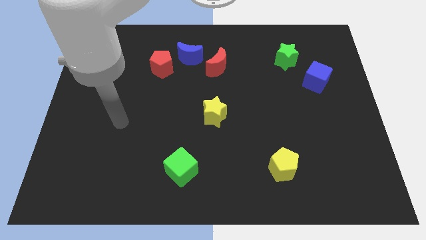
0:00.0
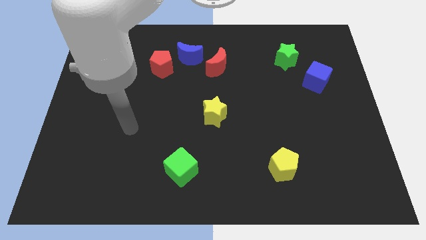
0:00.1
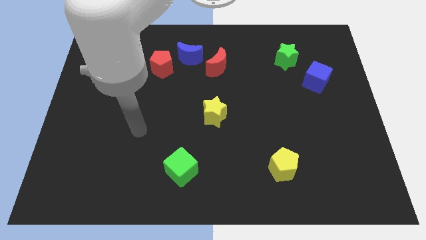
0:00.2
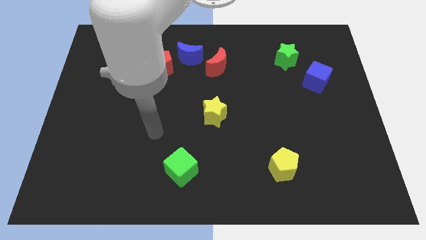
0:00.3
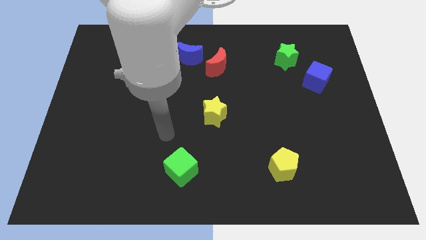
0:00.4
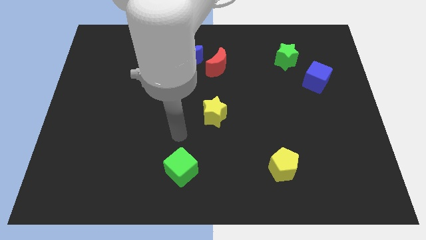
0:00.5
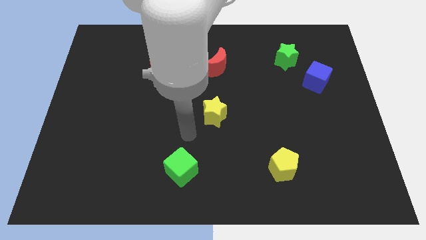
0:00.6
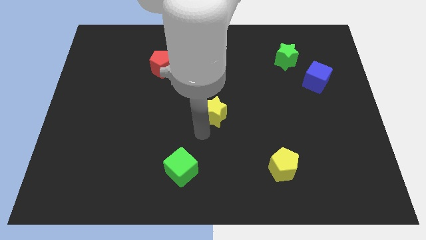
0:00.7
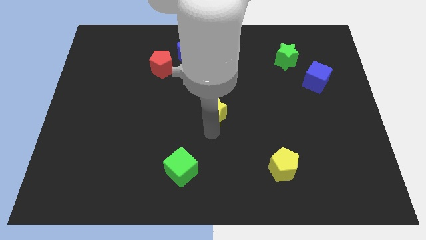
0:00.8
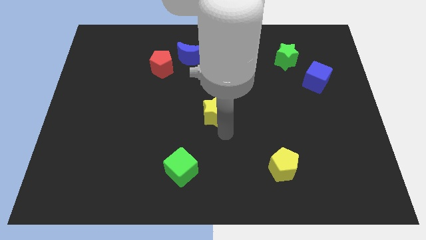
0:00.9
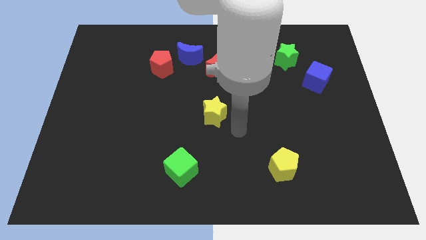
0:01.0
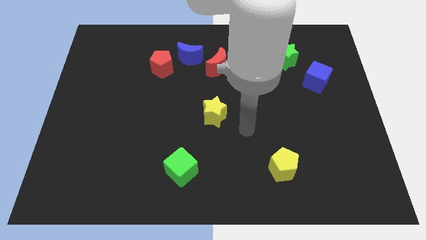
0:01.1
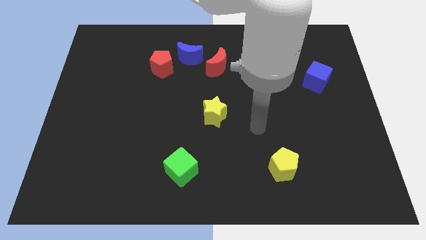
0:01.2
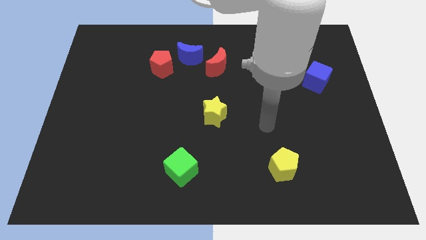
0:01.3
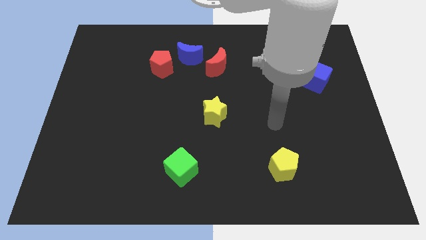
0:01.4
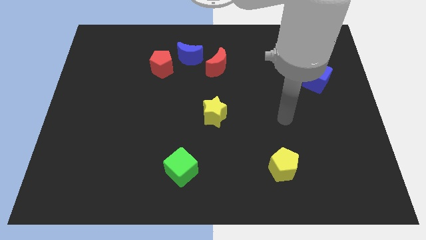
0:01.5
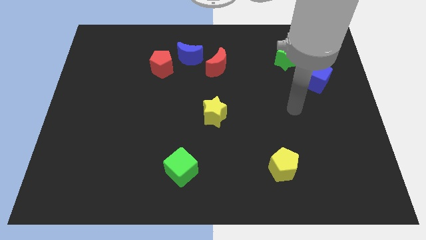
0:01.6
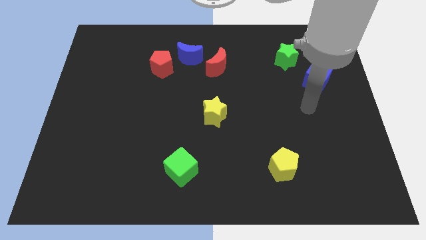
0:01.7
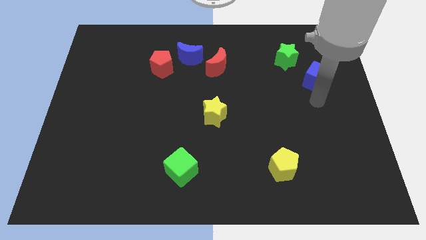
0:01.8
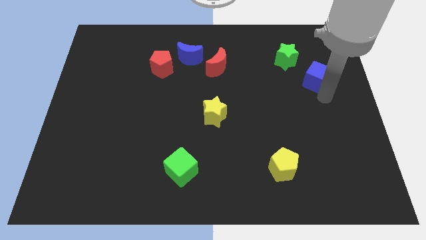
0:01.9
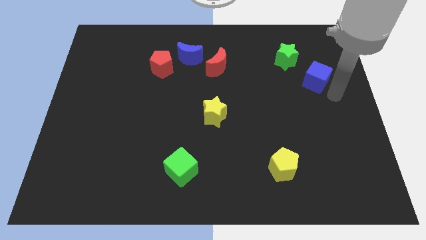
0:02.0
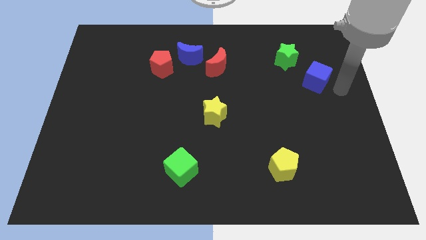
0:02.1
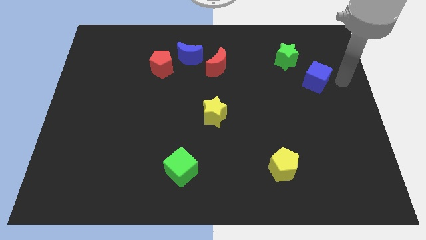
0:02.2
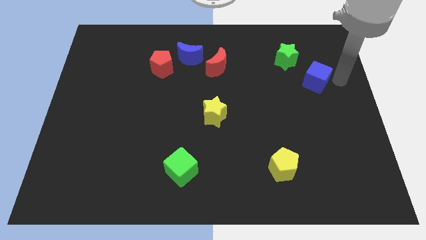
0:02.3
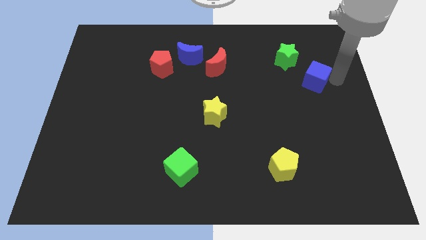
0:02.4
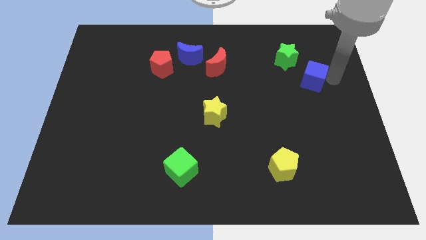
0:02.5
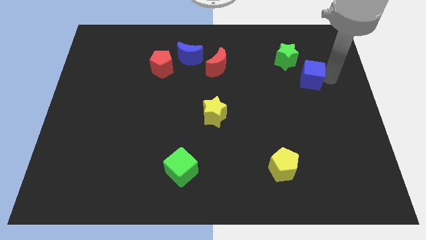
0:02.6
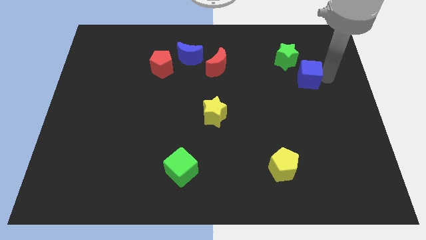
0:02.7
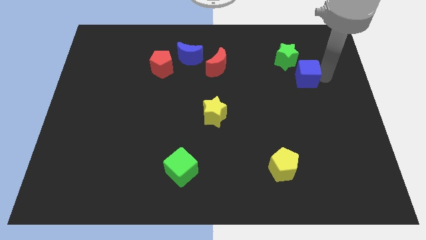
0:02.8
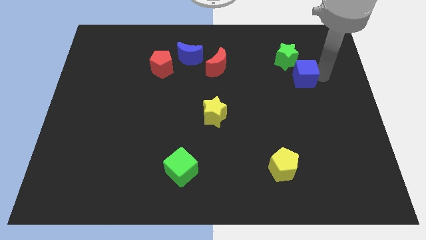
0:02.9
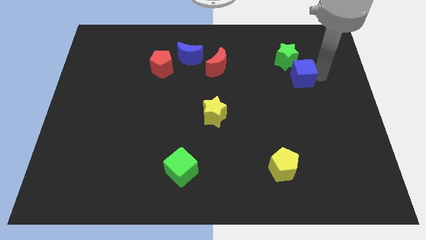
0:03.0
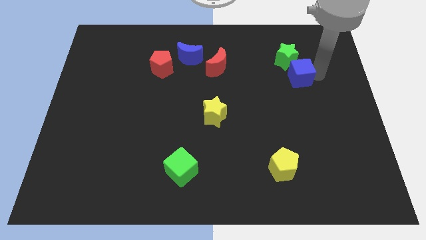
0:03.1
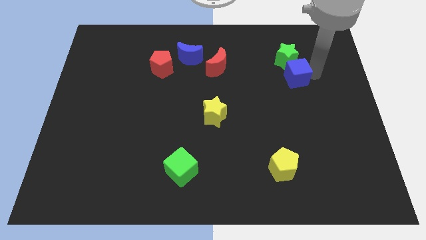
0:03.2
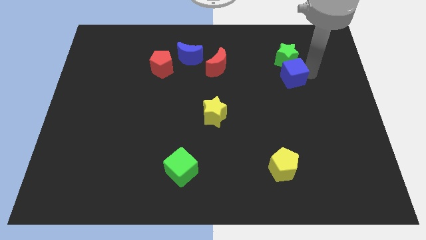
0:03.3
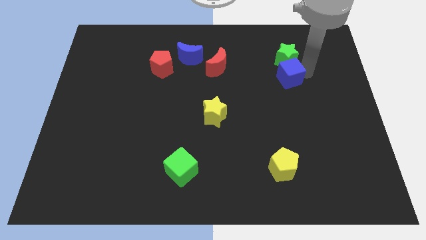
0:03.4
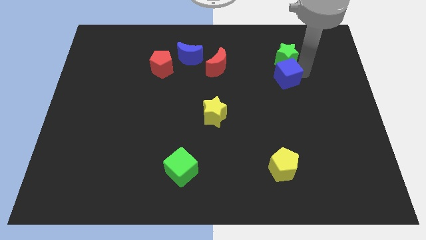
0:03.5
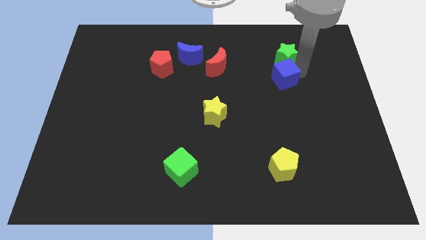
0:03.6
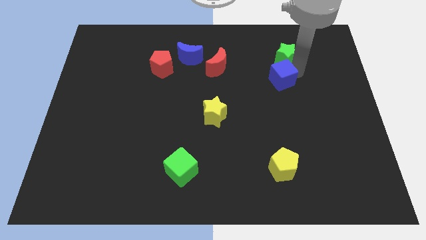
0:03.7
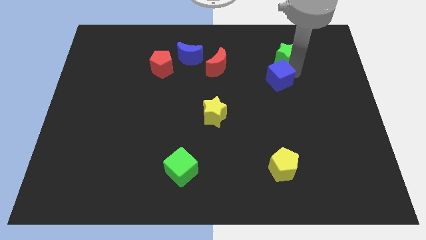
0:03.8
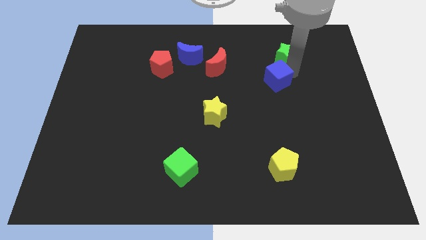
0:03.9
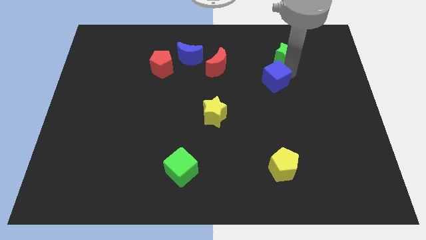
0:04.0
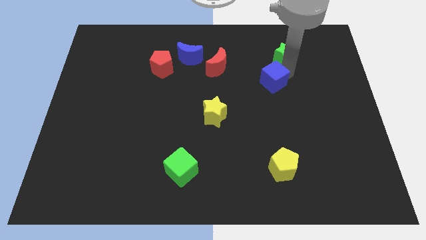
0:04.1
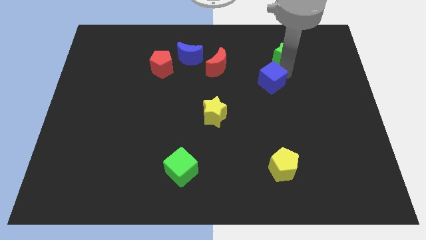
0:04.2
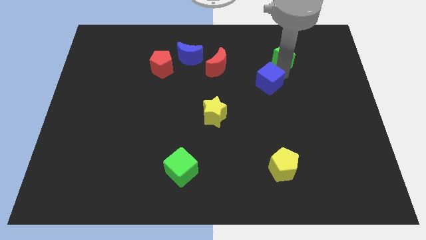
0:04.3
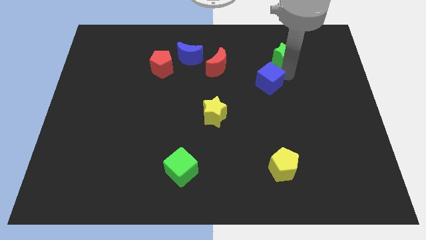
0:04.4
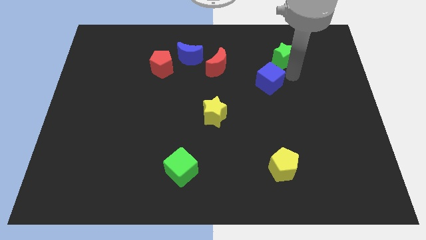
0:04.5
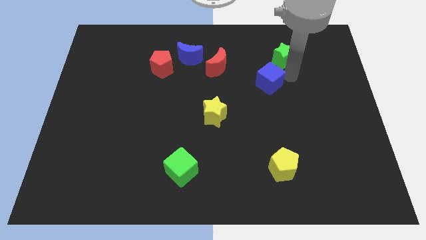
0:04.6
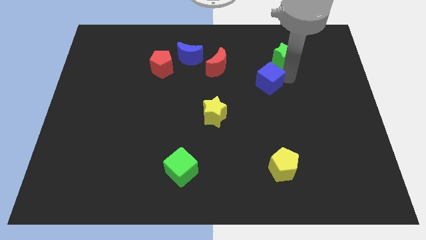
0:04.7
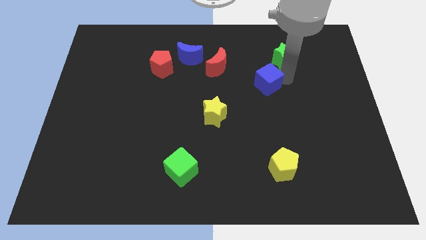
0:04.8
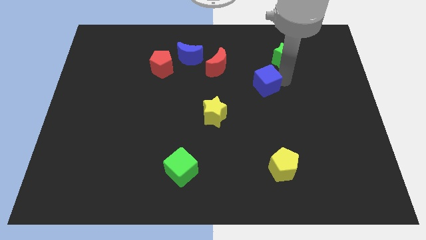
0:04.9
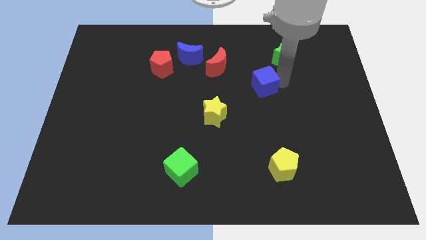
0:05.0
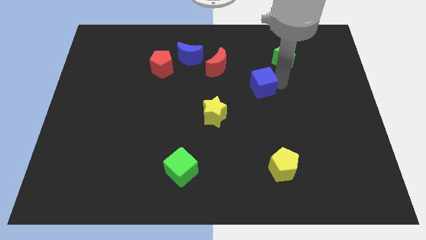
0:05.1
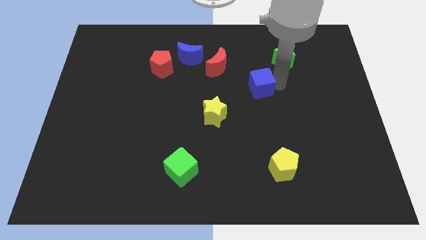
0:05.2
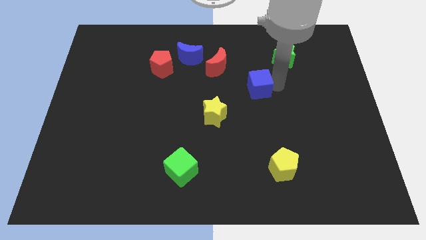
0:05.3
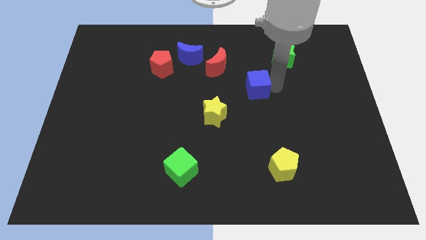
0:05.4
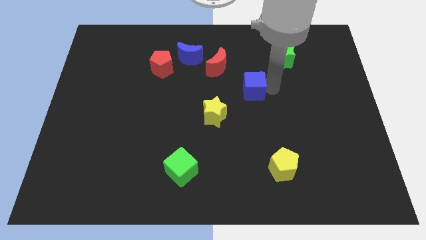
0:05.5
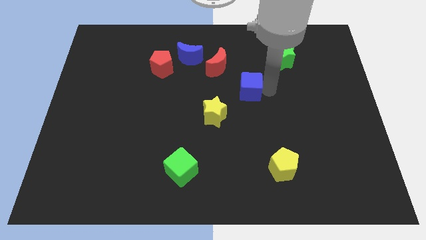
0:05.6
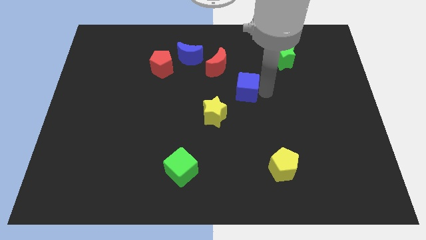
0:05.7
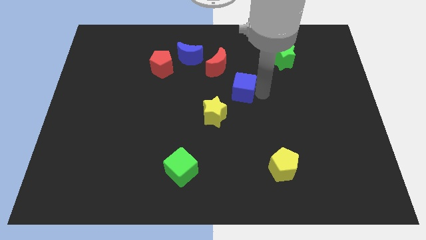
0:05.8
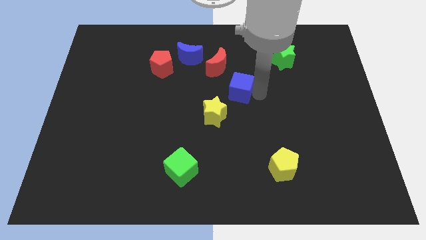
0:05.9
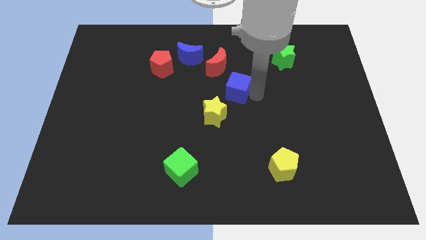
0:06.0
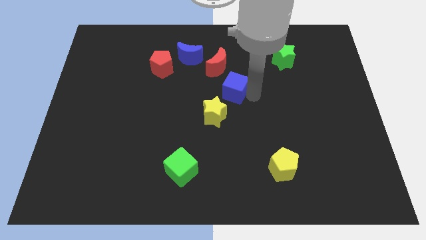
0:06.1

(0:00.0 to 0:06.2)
slide the blue cube to the top of the yellow star
